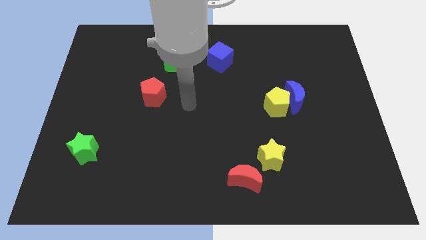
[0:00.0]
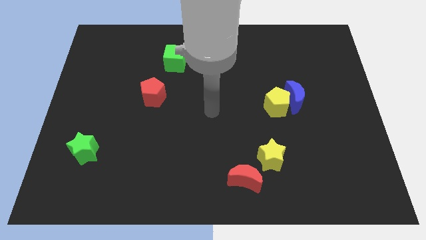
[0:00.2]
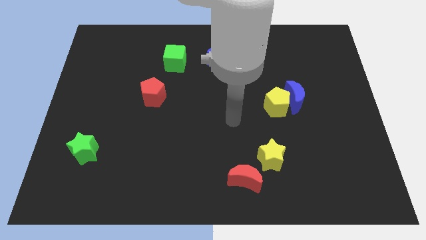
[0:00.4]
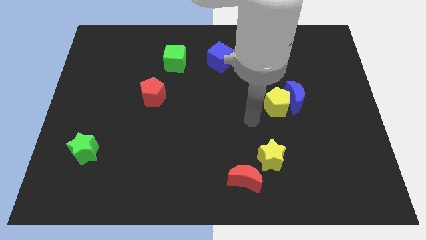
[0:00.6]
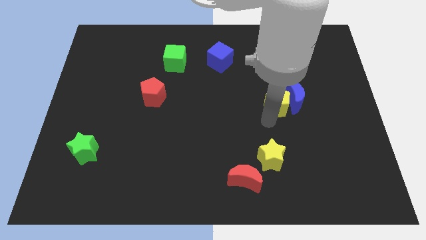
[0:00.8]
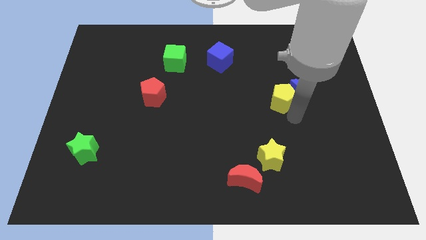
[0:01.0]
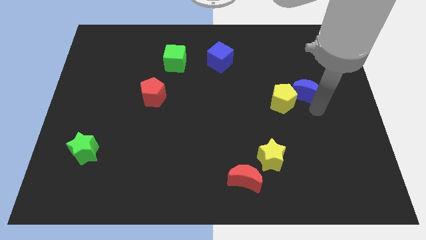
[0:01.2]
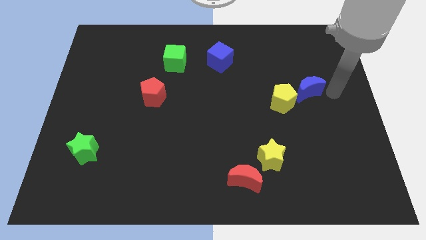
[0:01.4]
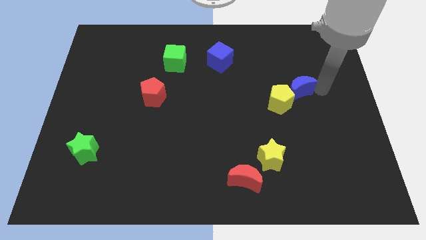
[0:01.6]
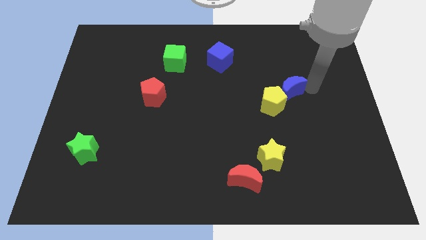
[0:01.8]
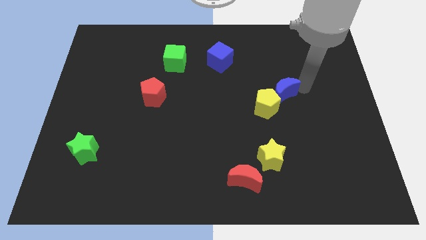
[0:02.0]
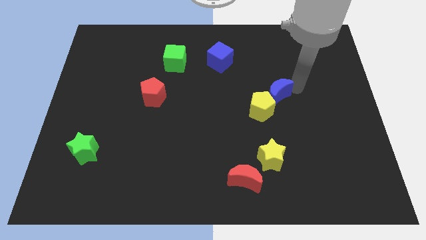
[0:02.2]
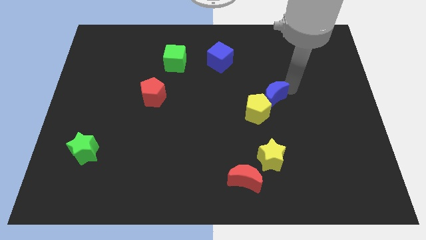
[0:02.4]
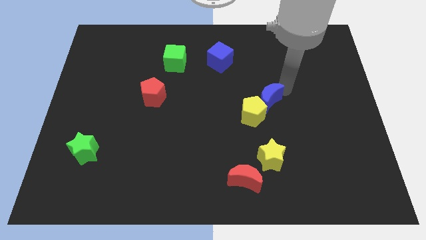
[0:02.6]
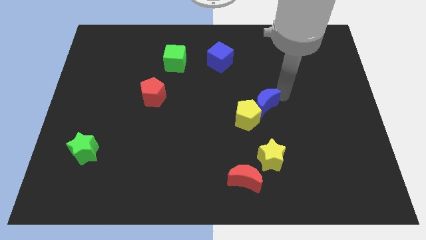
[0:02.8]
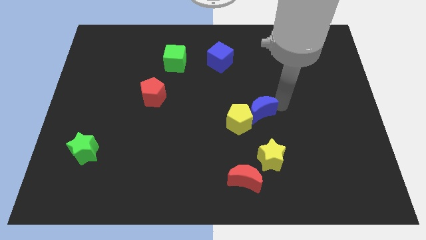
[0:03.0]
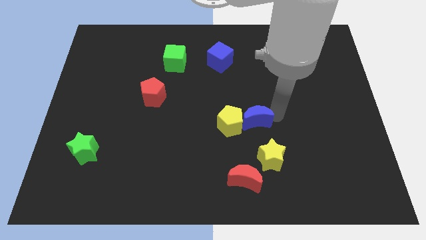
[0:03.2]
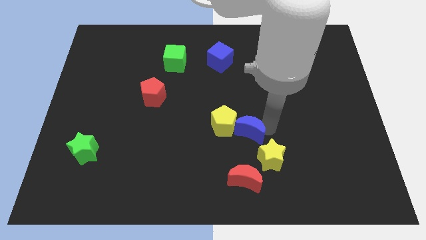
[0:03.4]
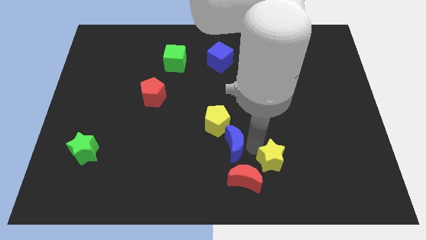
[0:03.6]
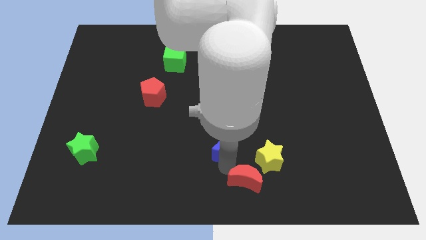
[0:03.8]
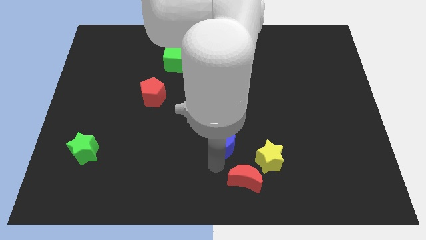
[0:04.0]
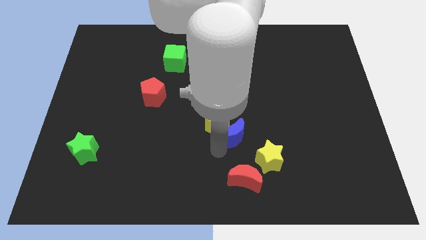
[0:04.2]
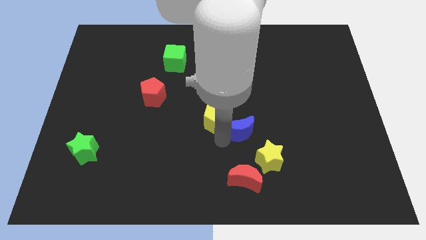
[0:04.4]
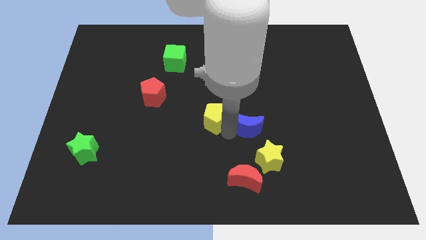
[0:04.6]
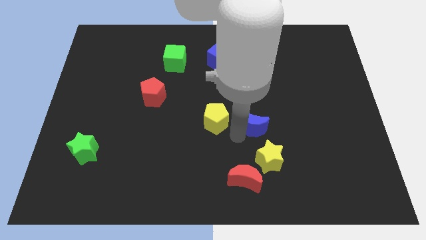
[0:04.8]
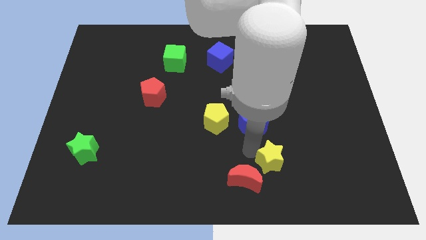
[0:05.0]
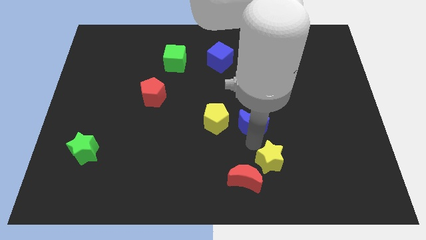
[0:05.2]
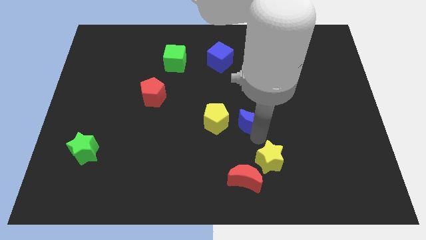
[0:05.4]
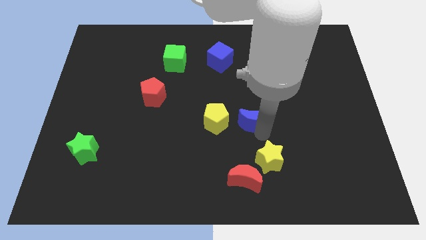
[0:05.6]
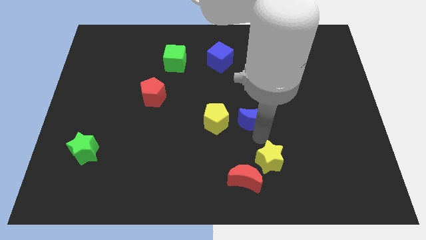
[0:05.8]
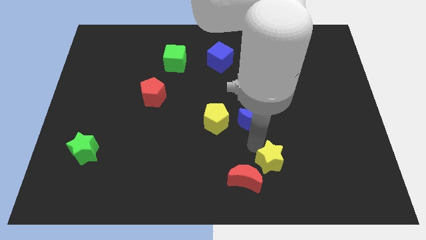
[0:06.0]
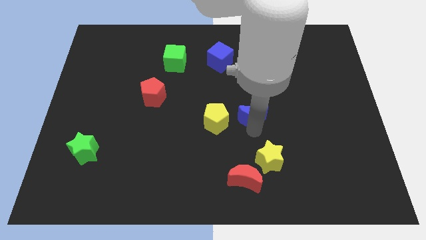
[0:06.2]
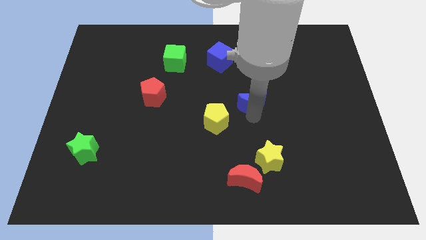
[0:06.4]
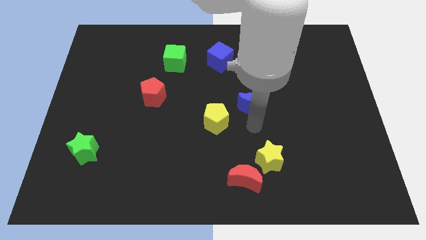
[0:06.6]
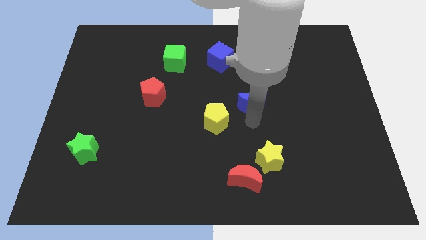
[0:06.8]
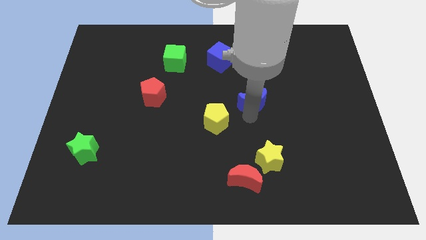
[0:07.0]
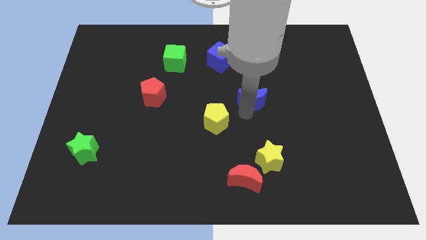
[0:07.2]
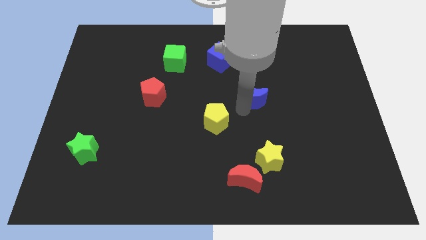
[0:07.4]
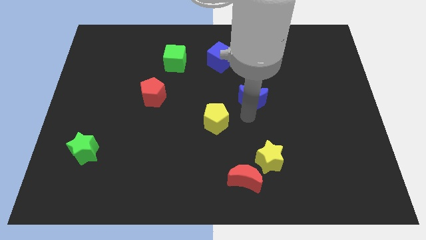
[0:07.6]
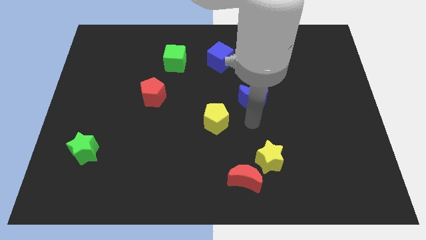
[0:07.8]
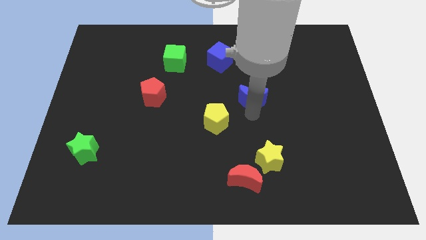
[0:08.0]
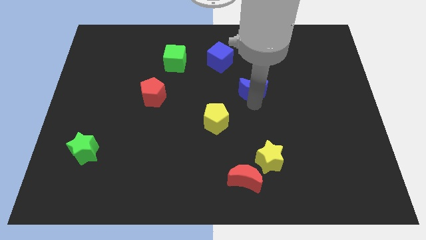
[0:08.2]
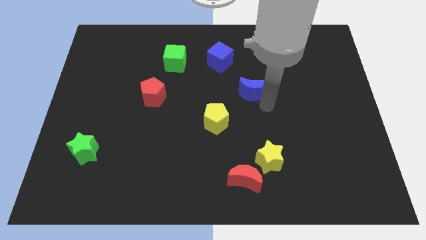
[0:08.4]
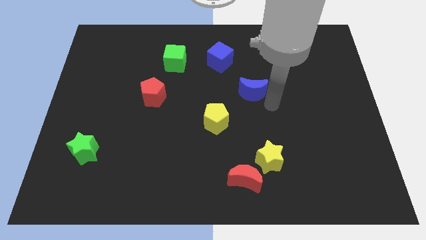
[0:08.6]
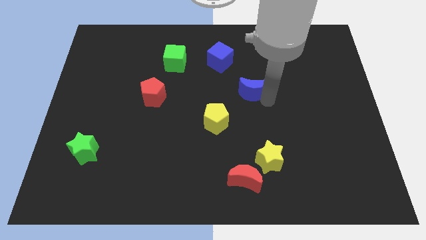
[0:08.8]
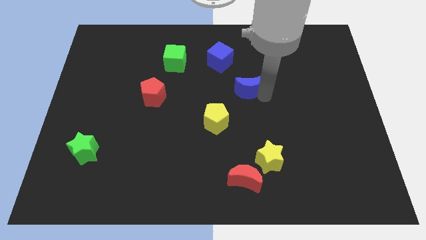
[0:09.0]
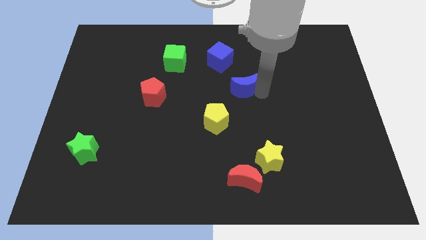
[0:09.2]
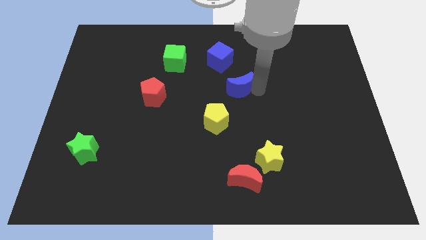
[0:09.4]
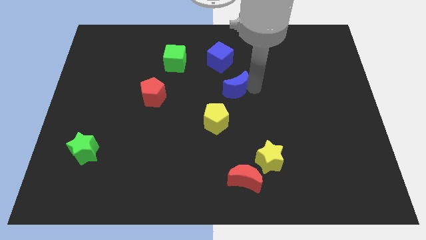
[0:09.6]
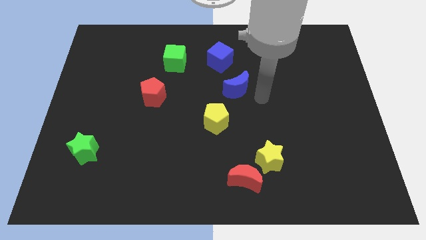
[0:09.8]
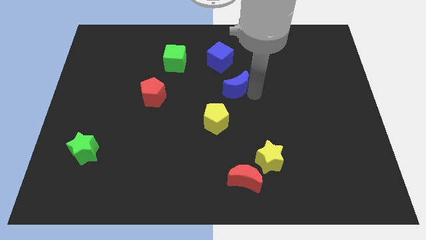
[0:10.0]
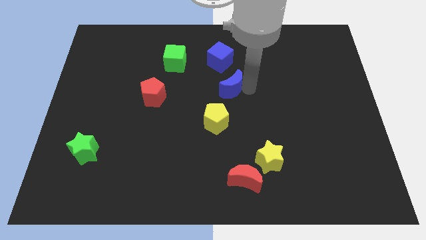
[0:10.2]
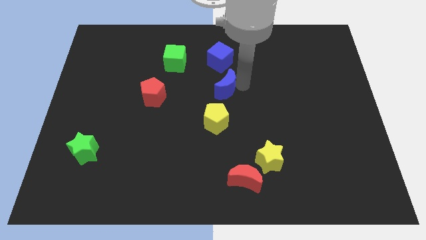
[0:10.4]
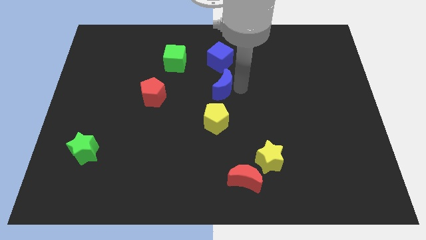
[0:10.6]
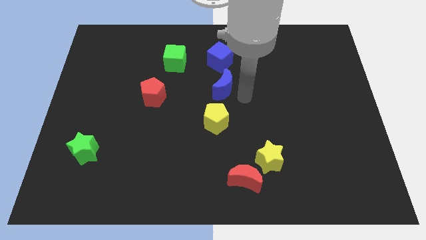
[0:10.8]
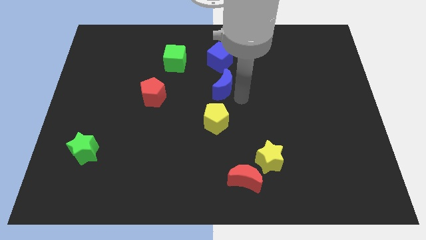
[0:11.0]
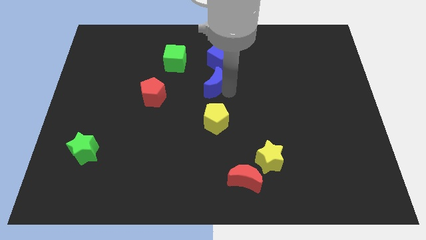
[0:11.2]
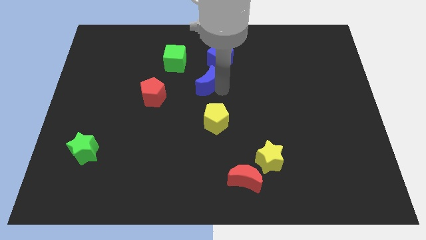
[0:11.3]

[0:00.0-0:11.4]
push the blue moon diagonally down and to the left of the blue cube

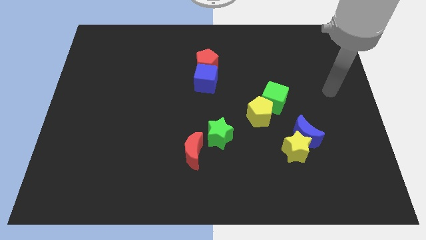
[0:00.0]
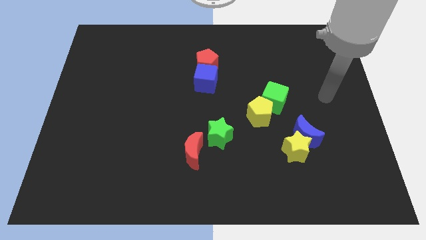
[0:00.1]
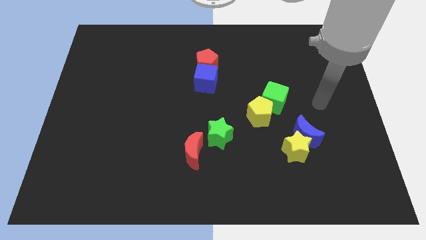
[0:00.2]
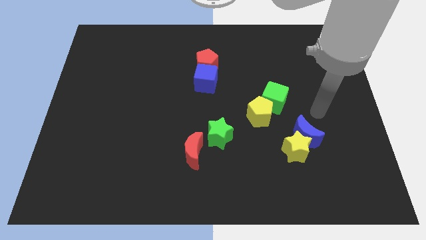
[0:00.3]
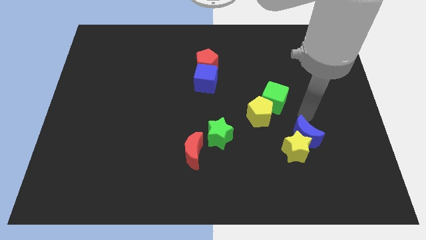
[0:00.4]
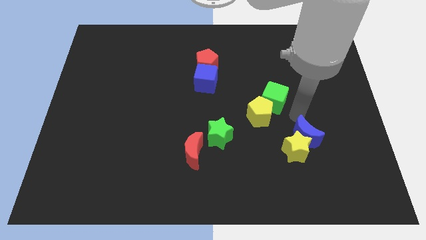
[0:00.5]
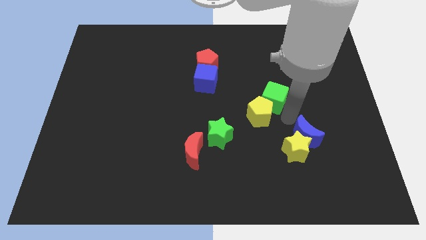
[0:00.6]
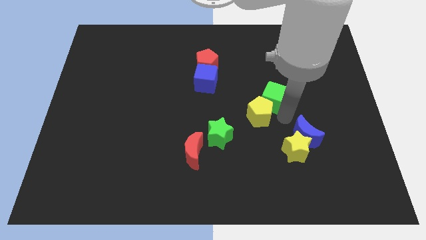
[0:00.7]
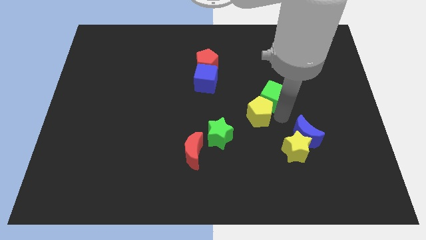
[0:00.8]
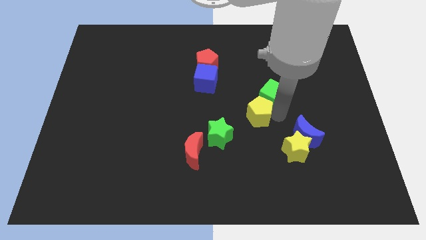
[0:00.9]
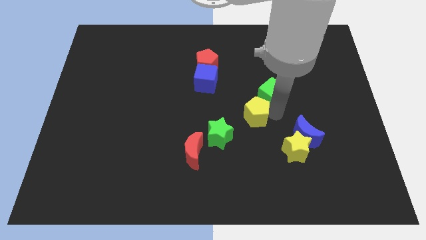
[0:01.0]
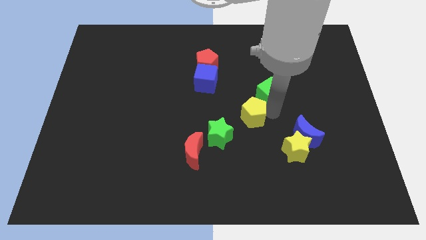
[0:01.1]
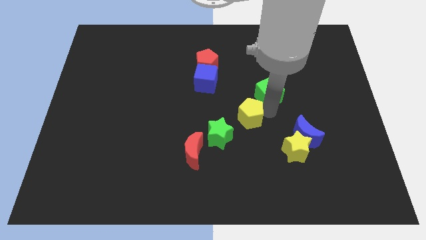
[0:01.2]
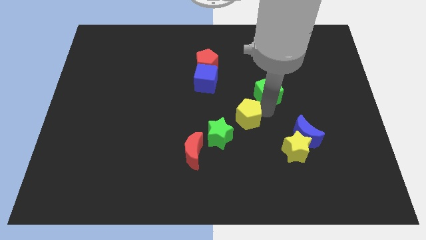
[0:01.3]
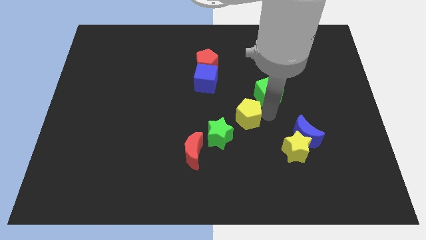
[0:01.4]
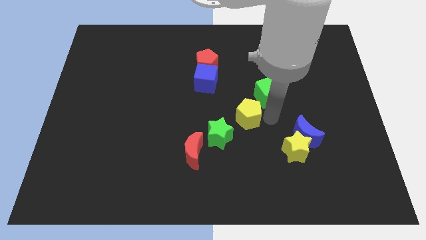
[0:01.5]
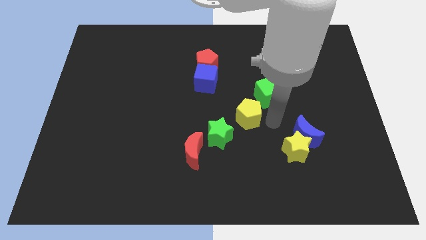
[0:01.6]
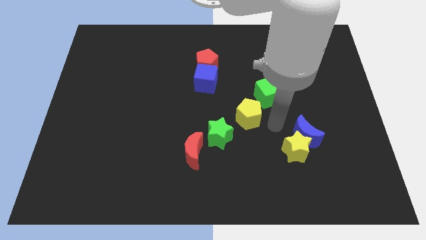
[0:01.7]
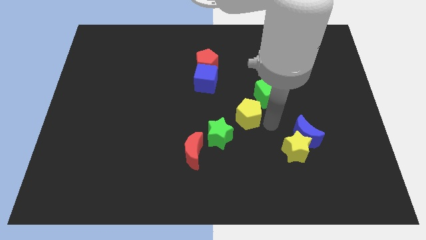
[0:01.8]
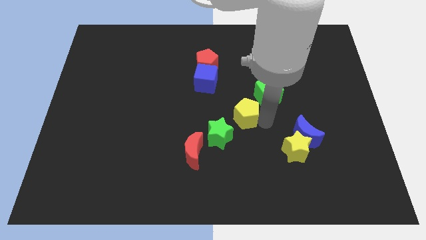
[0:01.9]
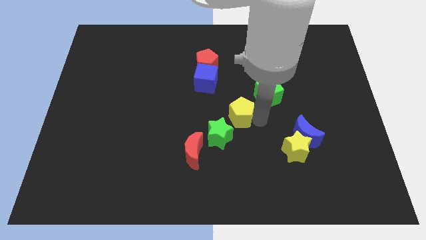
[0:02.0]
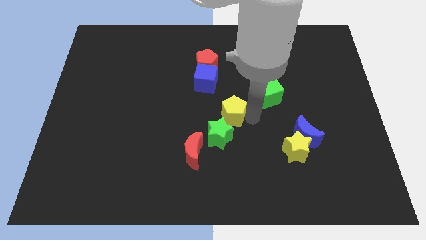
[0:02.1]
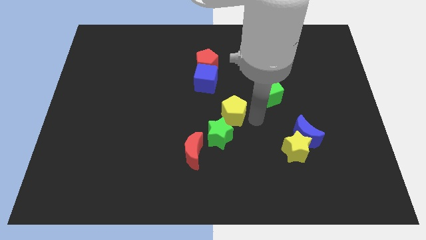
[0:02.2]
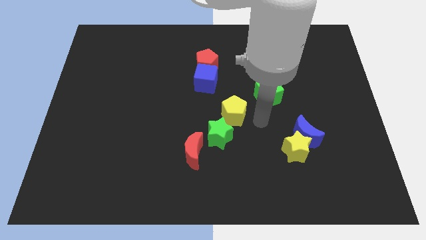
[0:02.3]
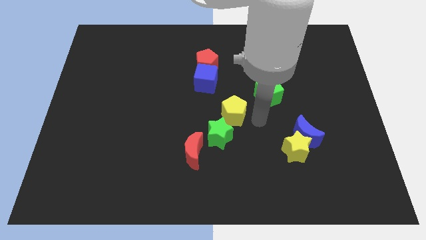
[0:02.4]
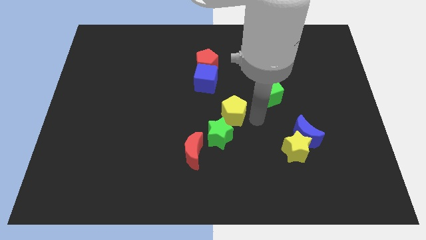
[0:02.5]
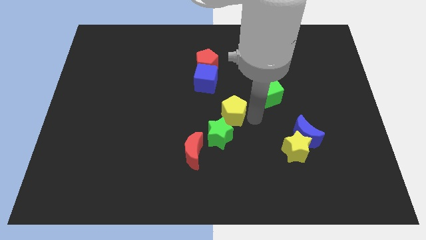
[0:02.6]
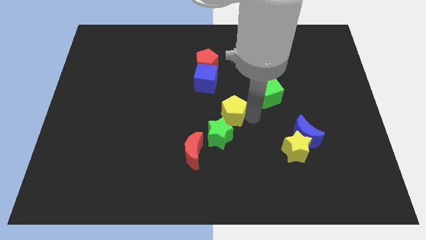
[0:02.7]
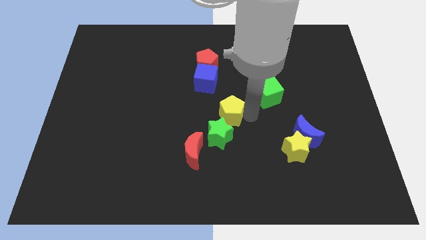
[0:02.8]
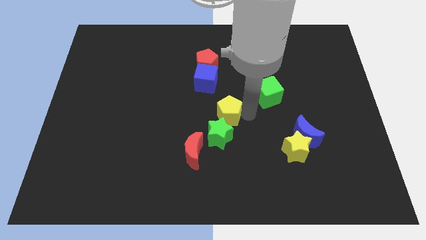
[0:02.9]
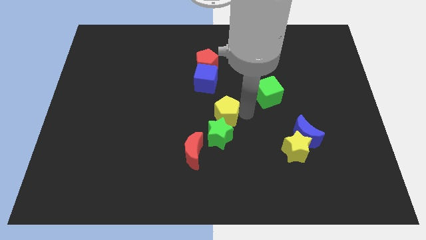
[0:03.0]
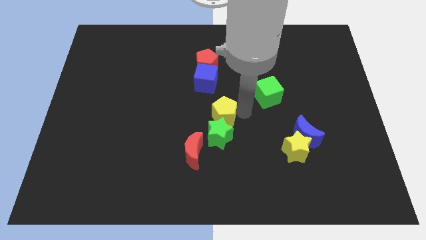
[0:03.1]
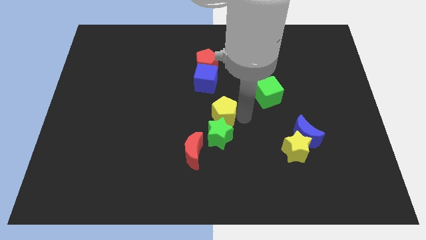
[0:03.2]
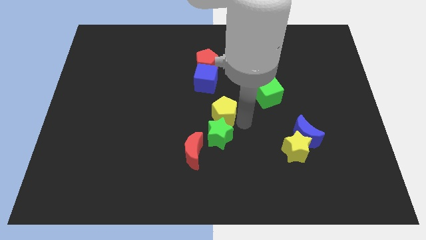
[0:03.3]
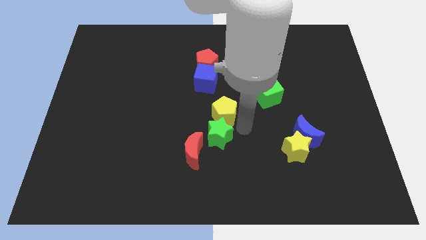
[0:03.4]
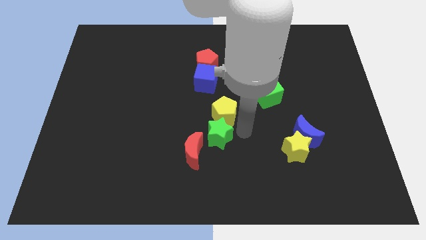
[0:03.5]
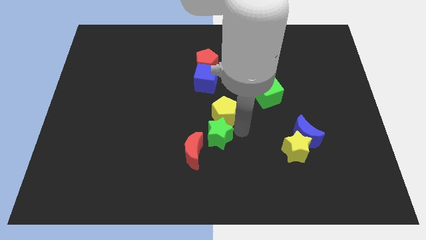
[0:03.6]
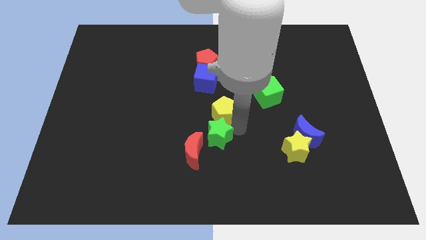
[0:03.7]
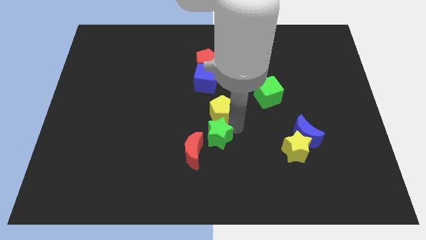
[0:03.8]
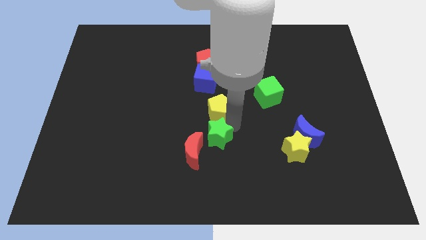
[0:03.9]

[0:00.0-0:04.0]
push the yellow pentagon to the bottom of the red pentagon
